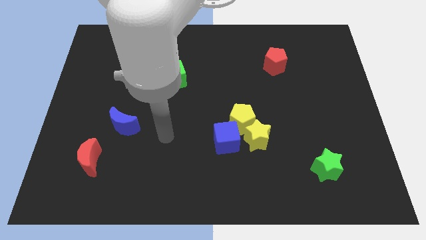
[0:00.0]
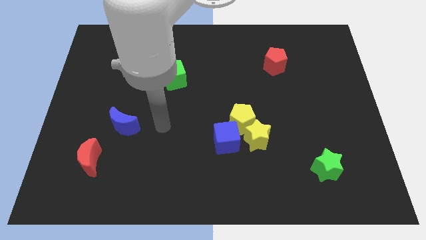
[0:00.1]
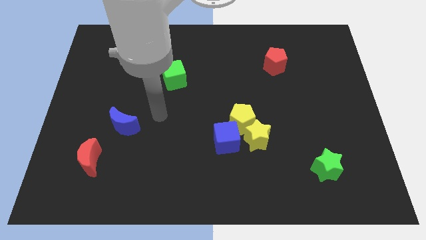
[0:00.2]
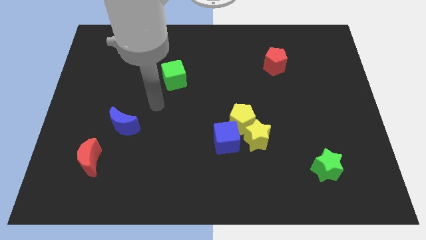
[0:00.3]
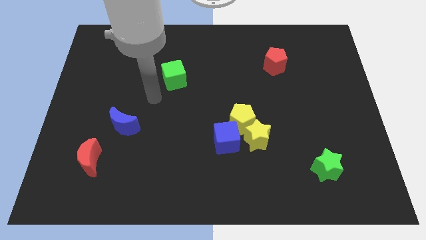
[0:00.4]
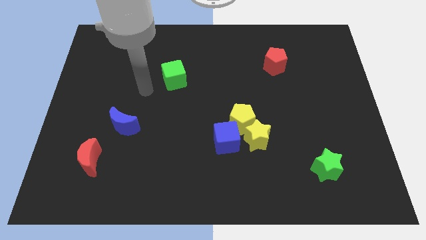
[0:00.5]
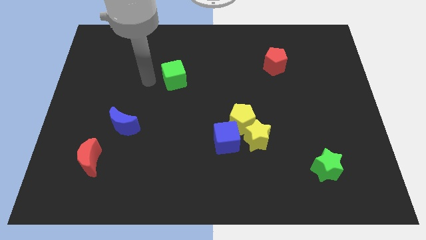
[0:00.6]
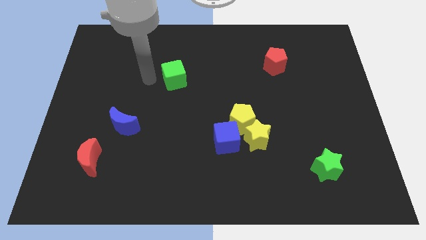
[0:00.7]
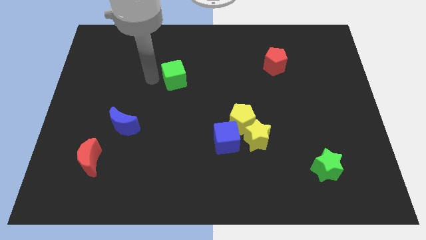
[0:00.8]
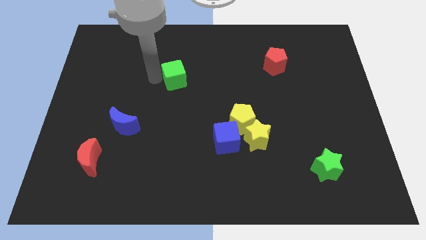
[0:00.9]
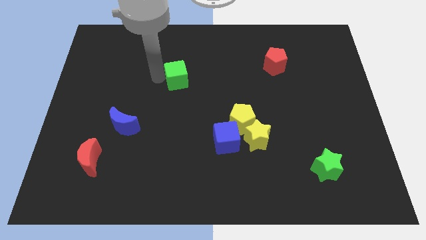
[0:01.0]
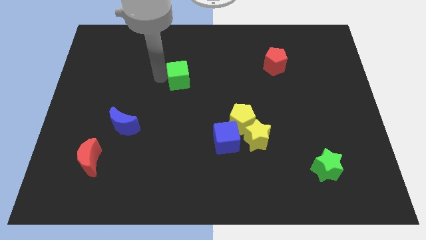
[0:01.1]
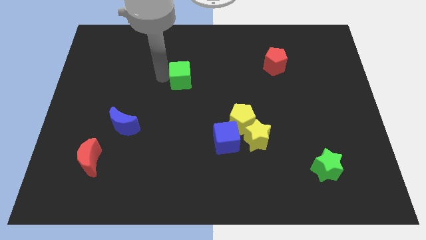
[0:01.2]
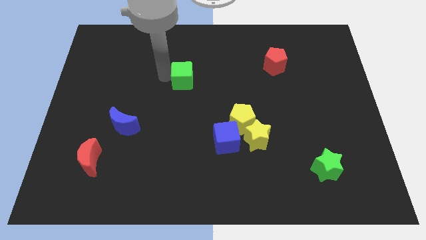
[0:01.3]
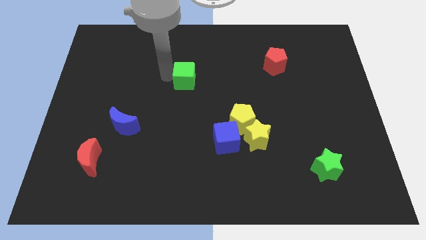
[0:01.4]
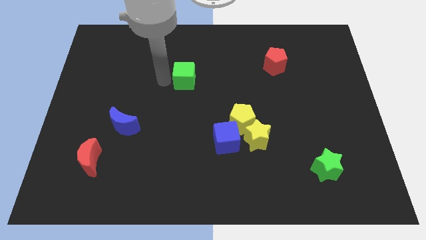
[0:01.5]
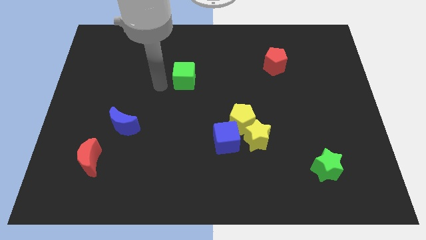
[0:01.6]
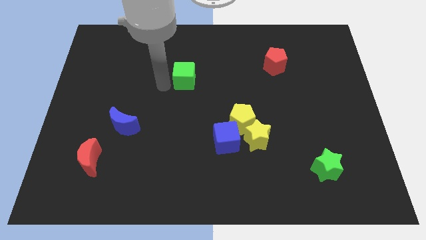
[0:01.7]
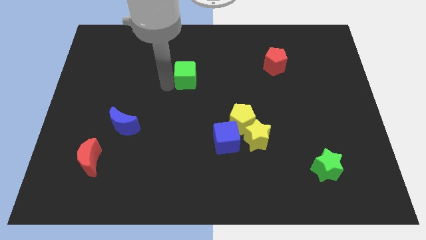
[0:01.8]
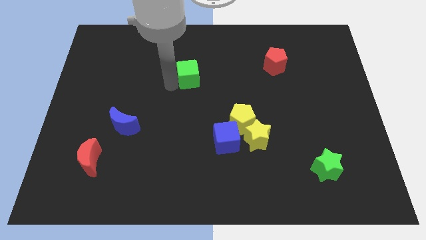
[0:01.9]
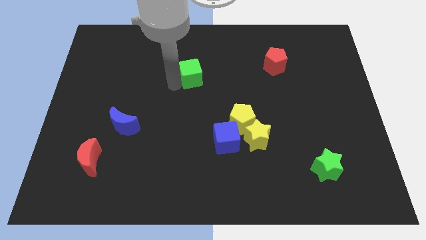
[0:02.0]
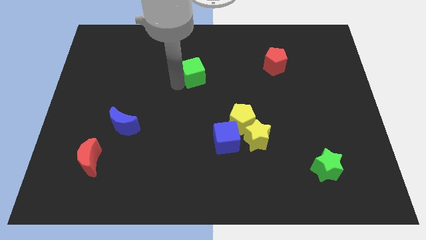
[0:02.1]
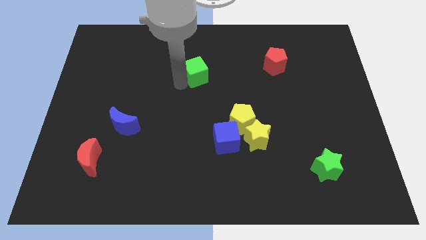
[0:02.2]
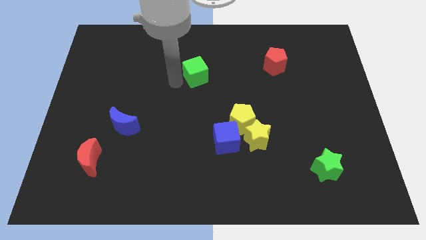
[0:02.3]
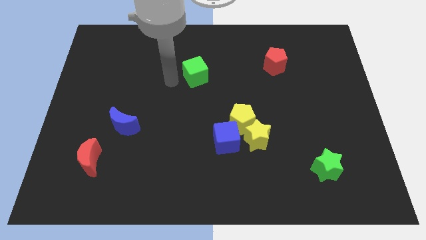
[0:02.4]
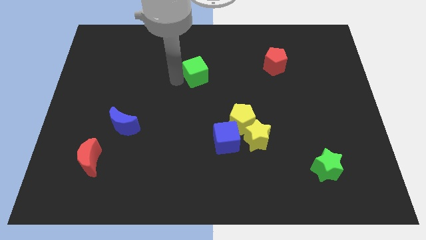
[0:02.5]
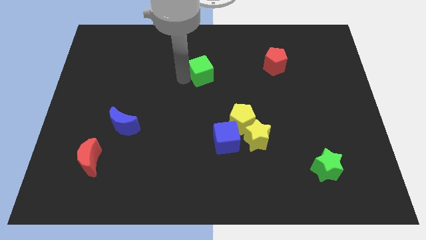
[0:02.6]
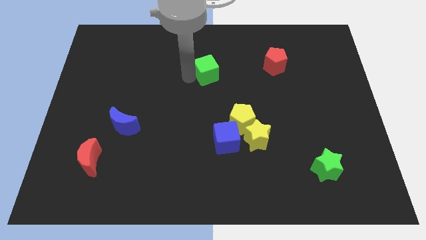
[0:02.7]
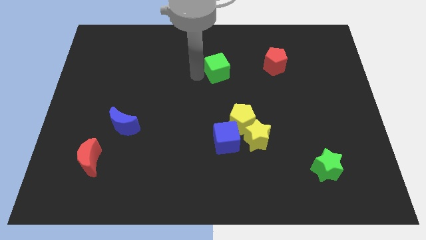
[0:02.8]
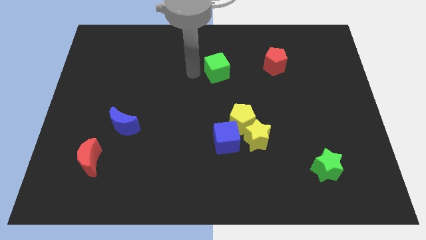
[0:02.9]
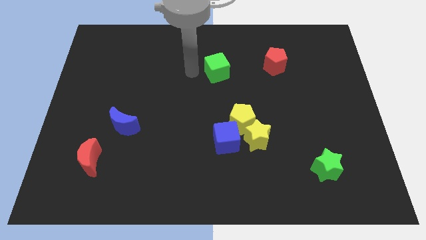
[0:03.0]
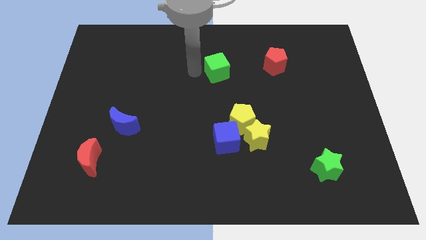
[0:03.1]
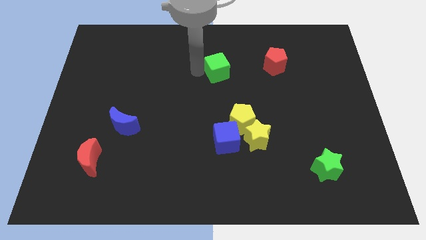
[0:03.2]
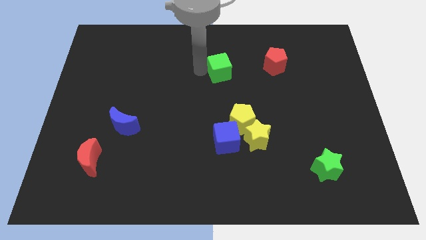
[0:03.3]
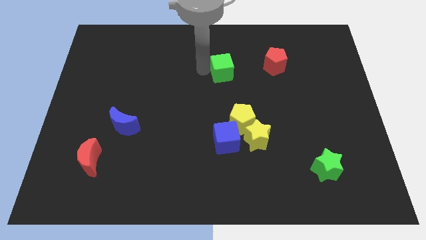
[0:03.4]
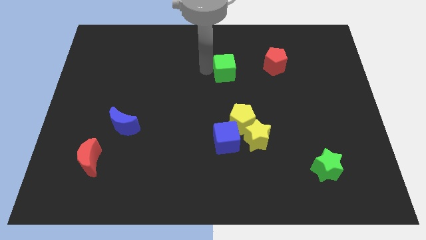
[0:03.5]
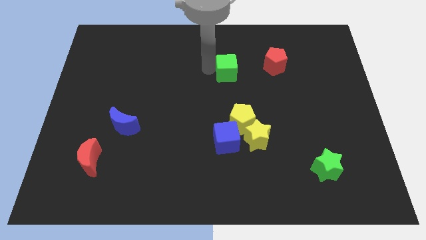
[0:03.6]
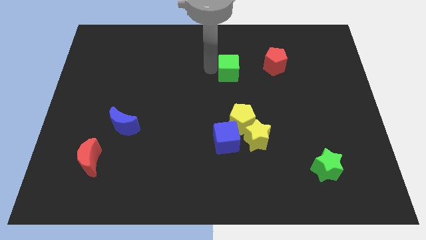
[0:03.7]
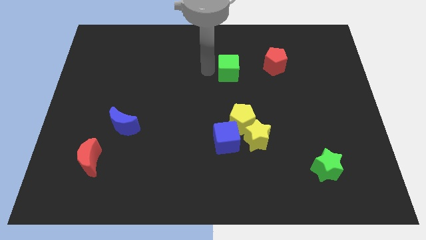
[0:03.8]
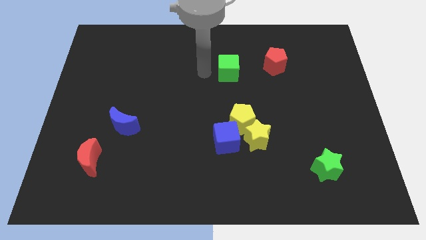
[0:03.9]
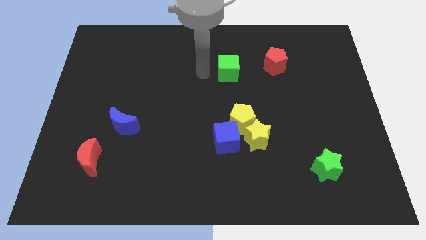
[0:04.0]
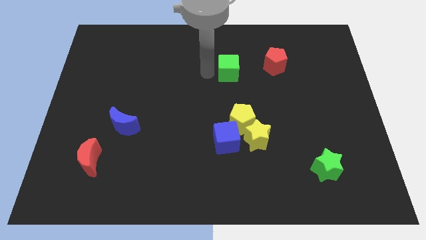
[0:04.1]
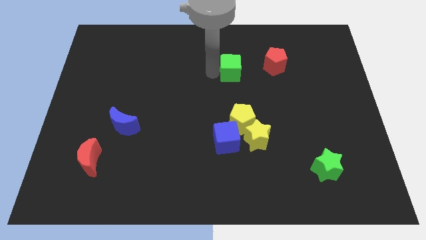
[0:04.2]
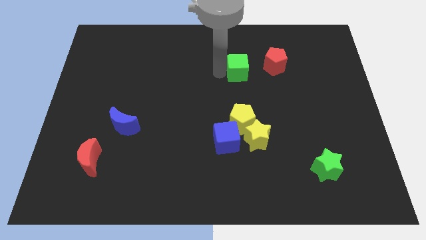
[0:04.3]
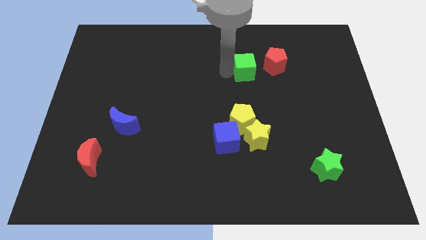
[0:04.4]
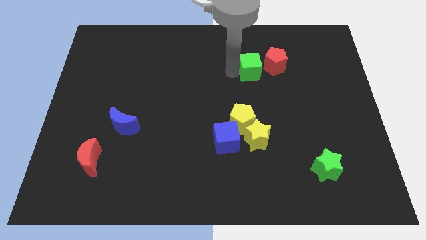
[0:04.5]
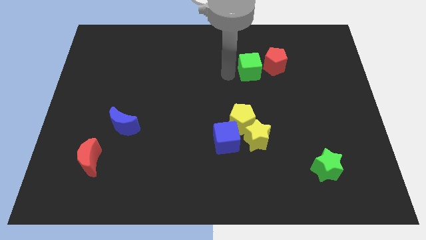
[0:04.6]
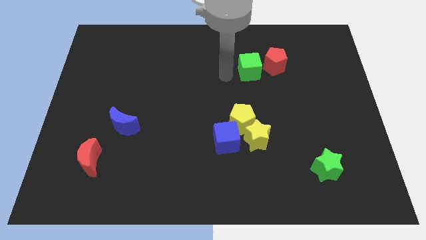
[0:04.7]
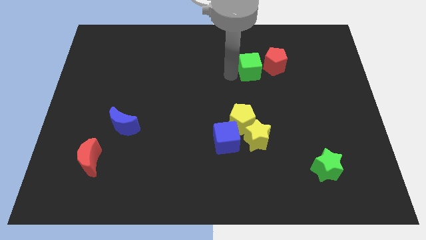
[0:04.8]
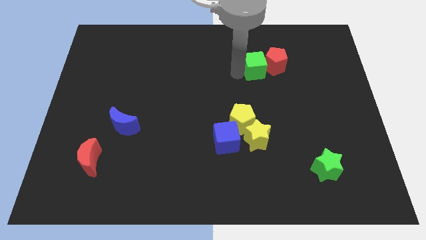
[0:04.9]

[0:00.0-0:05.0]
move the green cube next to the red pentagon

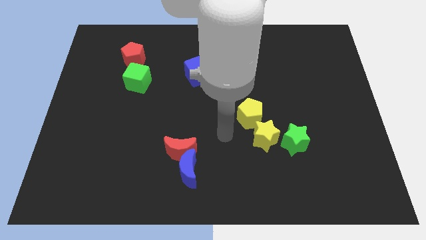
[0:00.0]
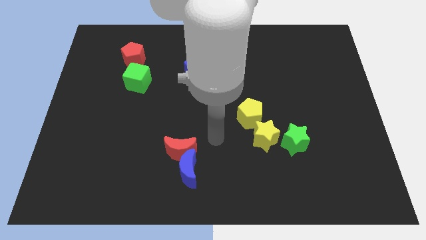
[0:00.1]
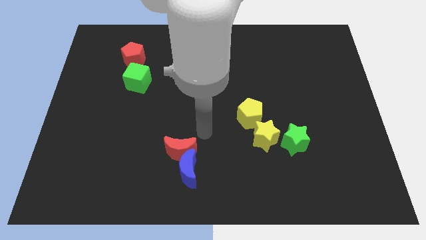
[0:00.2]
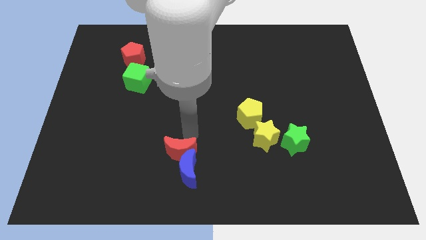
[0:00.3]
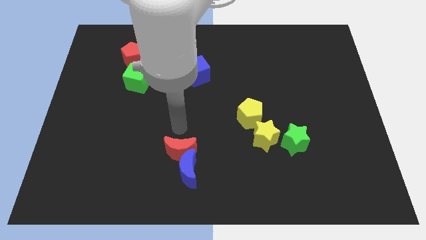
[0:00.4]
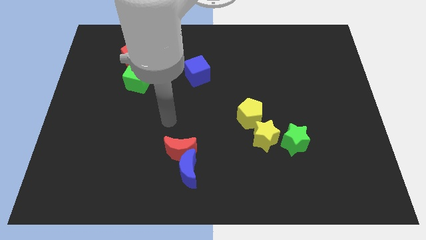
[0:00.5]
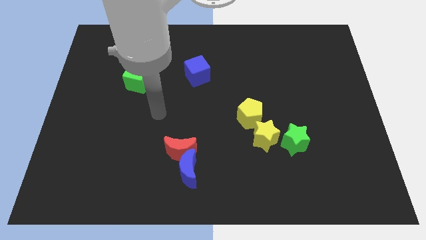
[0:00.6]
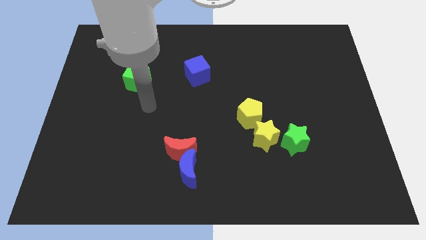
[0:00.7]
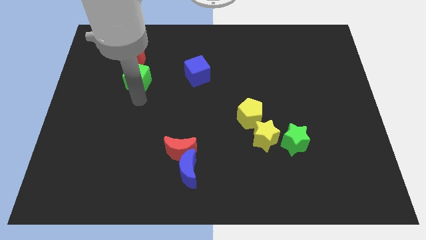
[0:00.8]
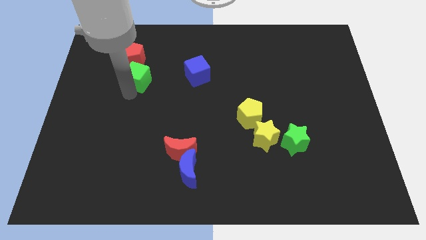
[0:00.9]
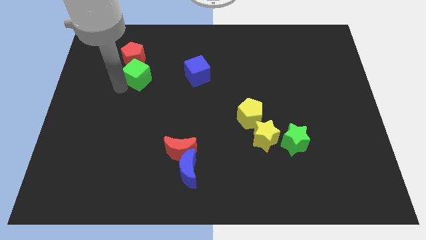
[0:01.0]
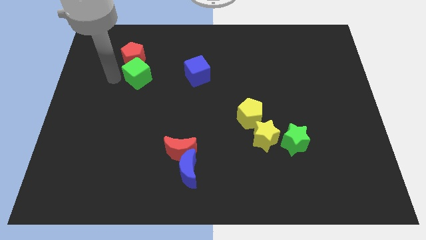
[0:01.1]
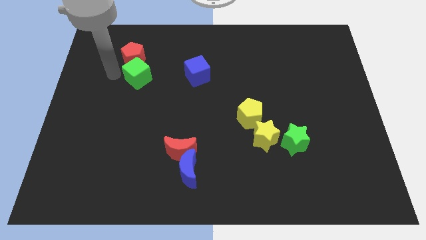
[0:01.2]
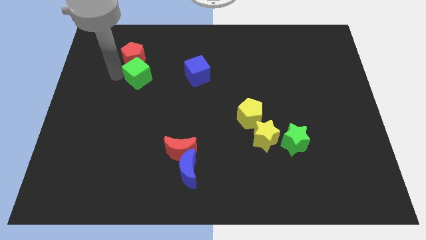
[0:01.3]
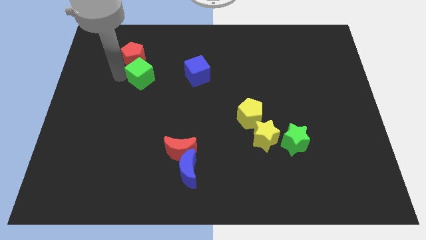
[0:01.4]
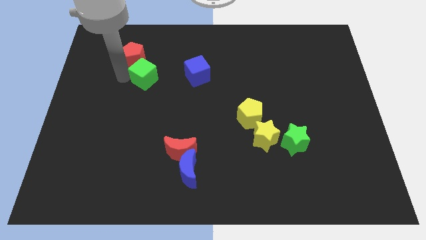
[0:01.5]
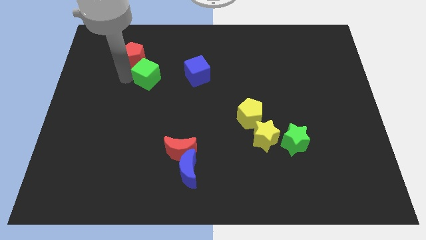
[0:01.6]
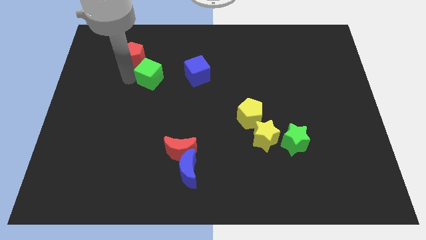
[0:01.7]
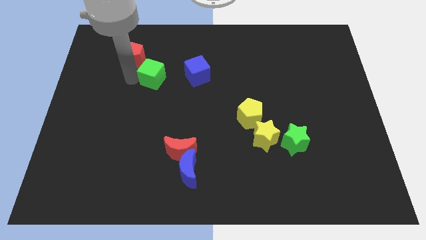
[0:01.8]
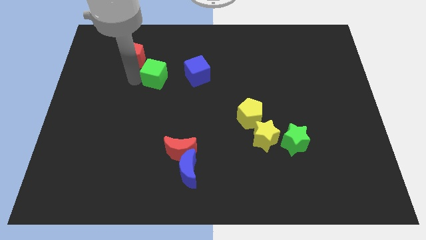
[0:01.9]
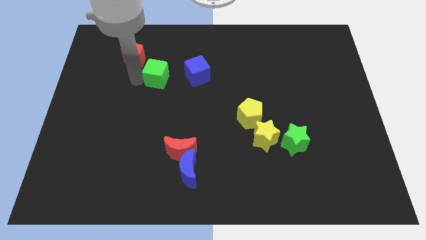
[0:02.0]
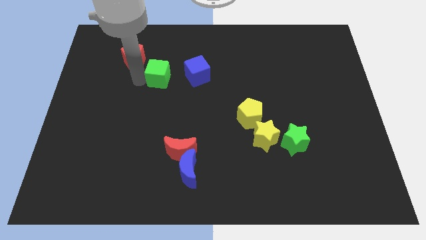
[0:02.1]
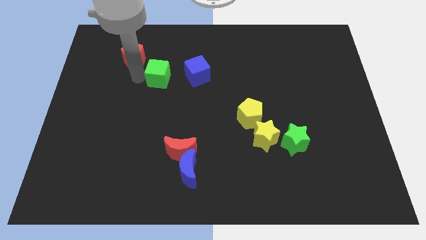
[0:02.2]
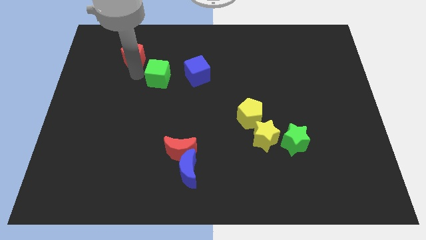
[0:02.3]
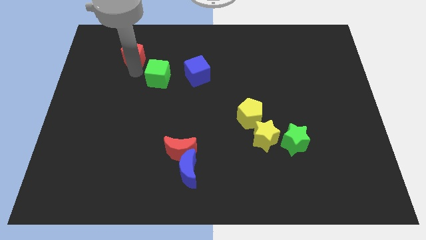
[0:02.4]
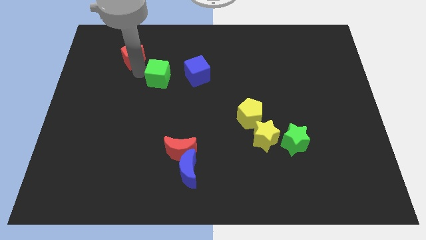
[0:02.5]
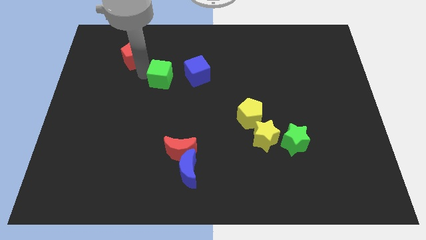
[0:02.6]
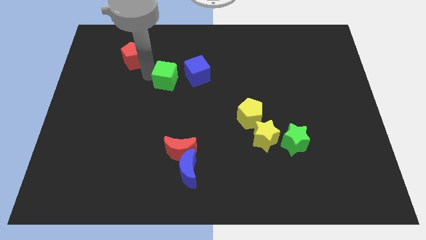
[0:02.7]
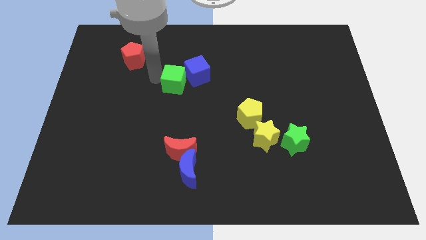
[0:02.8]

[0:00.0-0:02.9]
put the green cube towards the blue cube
